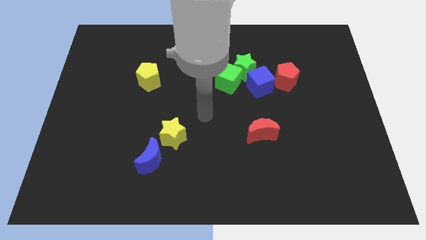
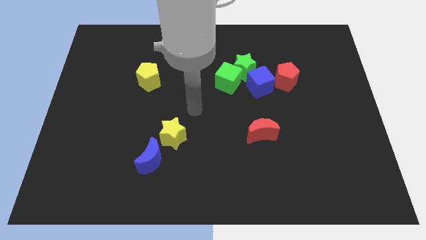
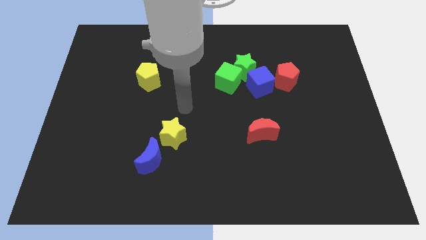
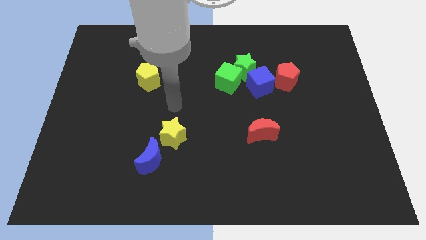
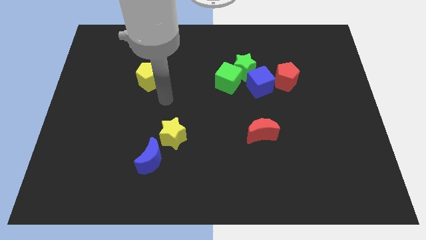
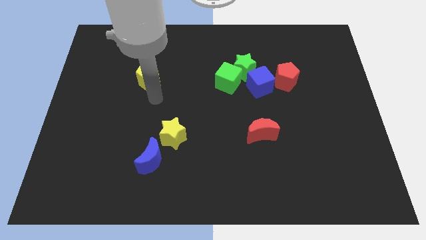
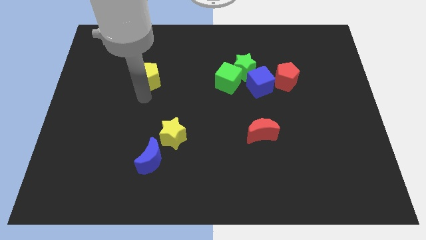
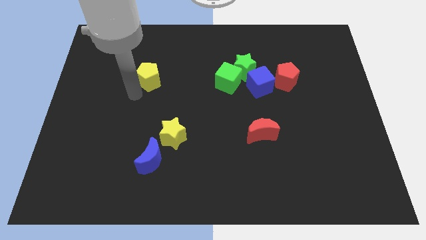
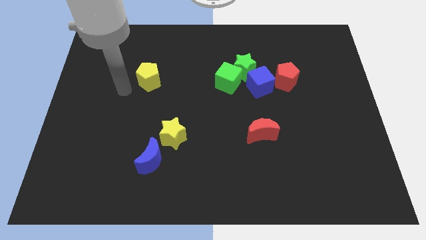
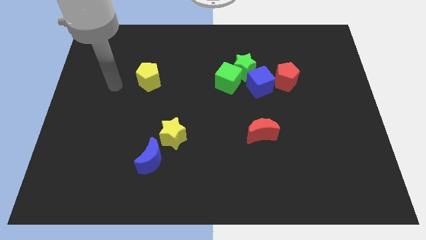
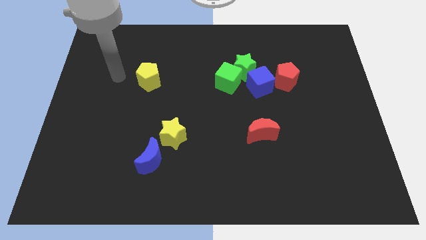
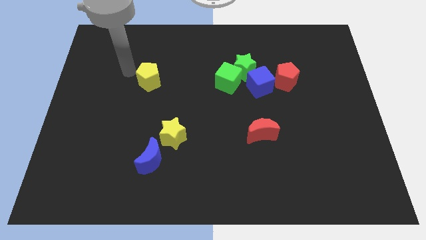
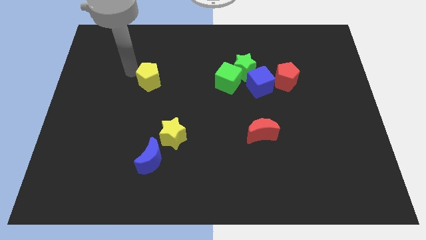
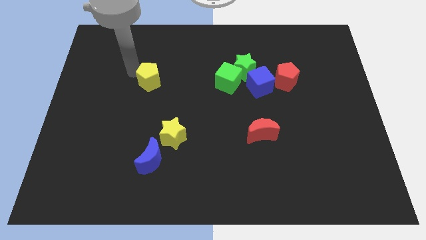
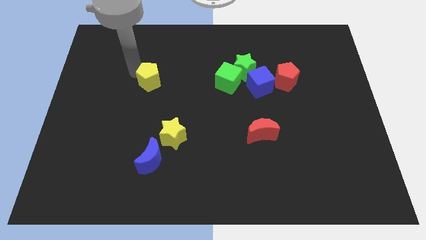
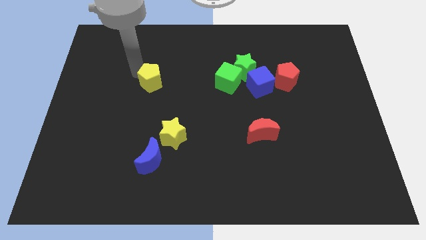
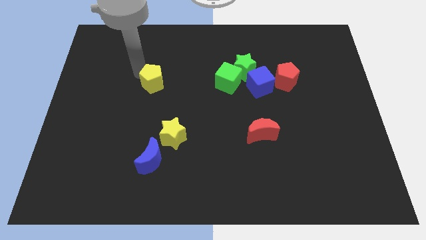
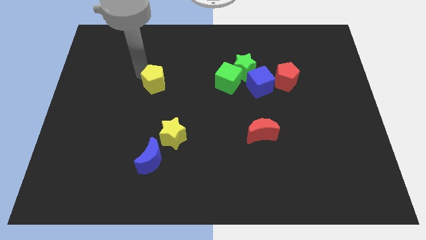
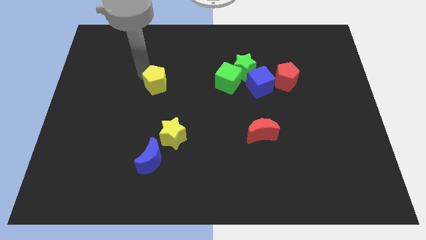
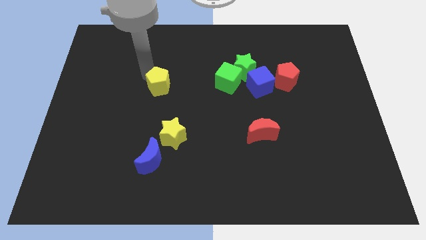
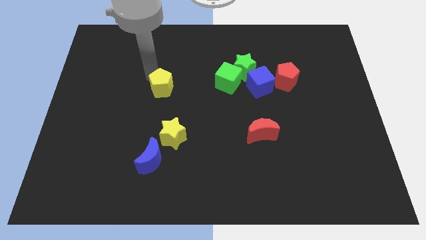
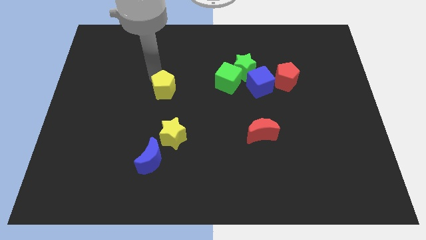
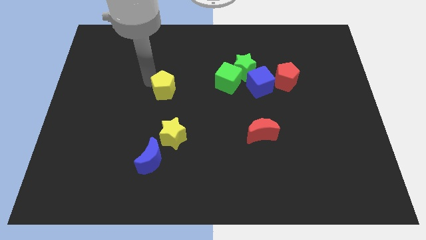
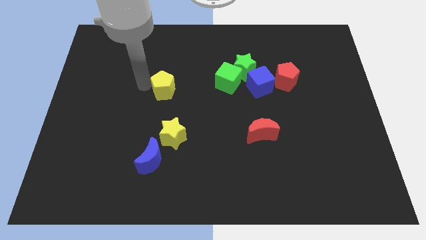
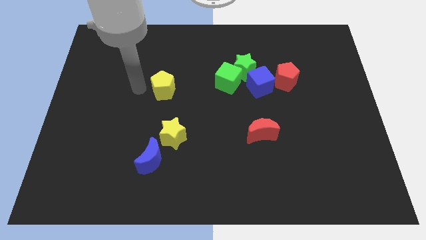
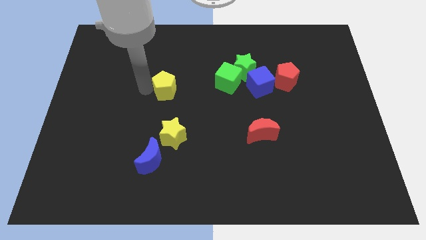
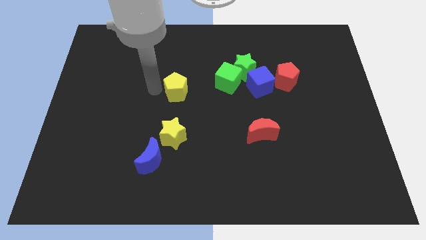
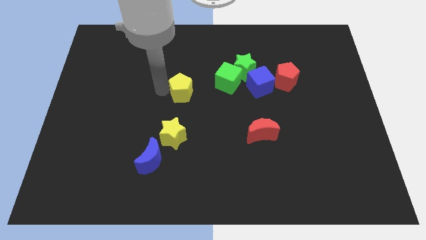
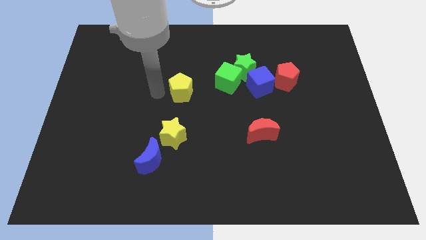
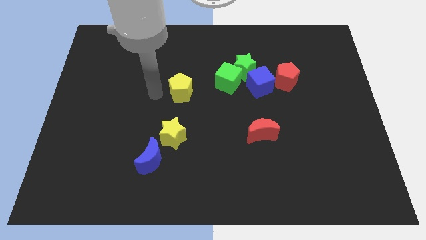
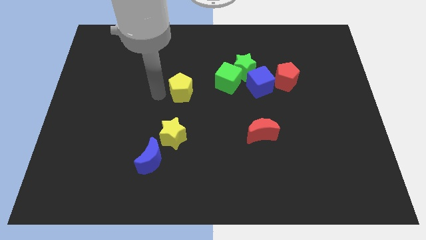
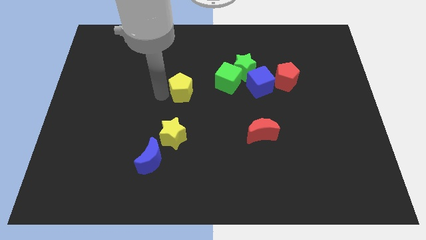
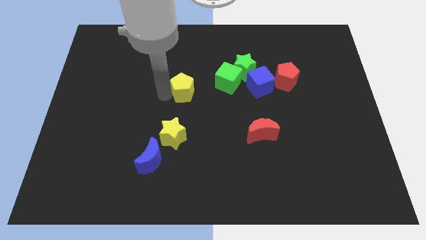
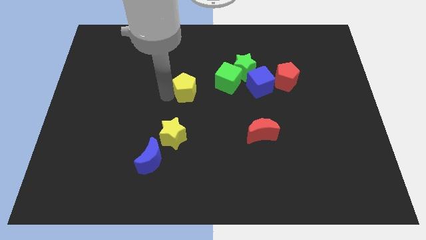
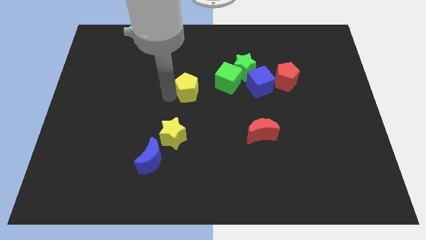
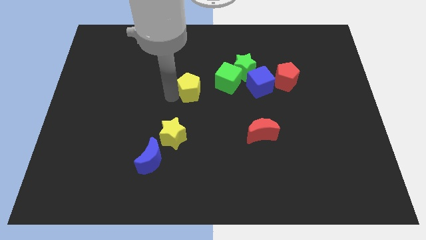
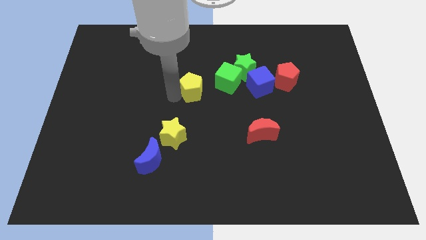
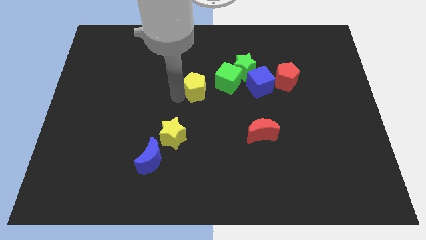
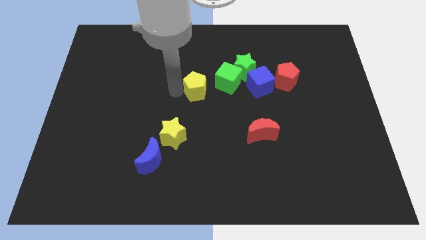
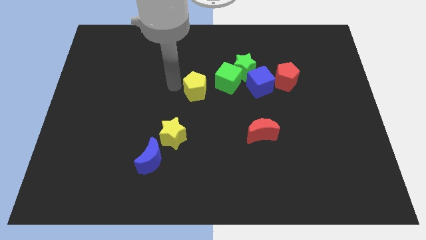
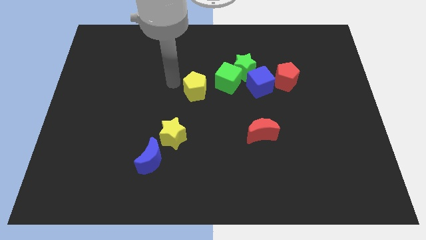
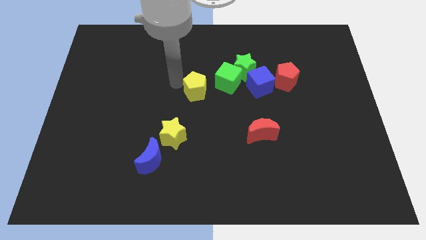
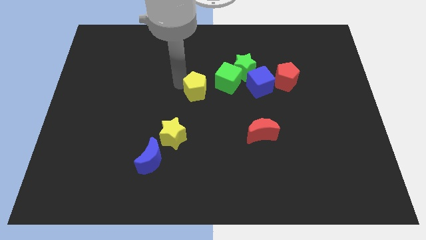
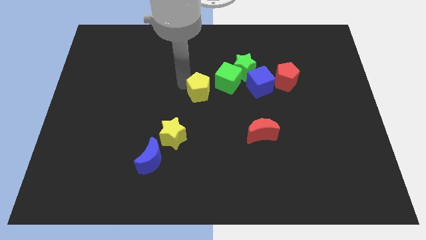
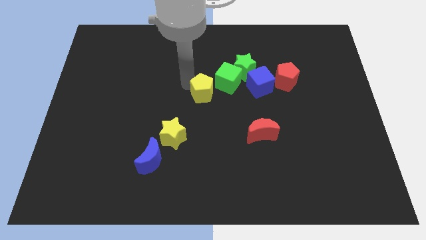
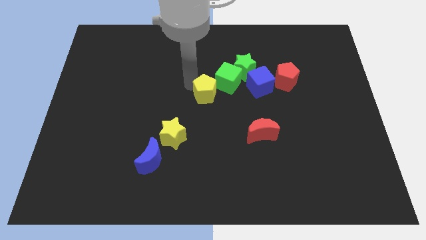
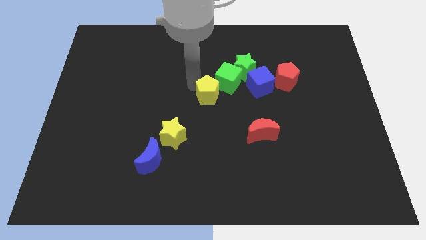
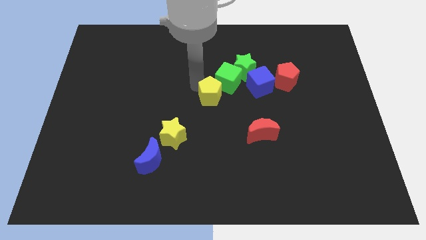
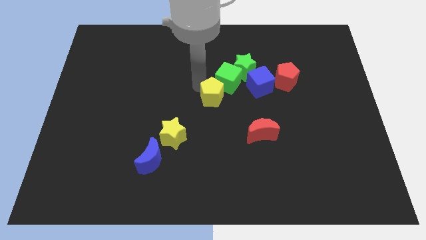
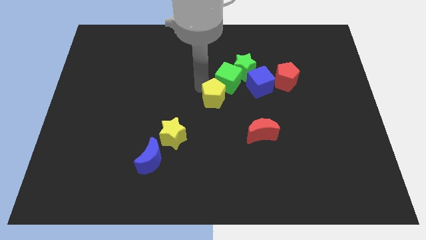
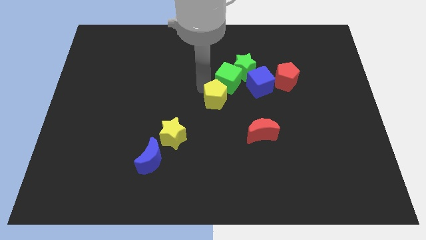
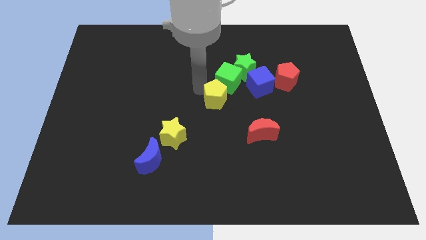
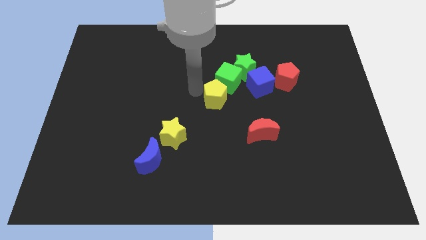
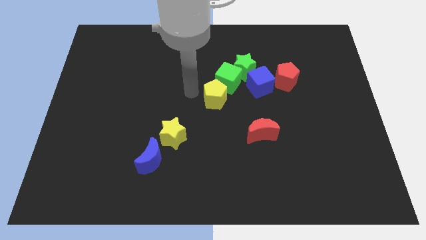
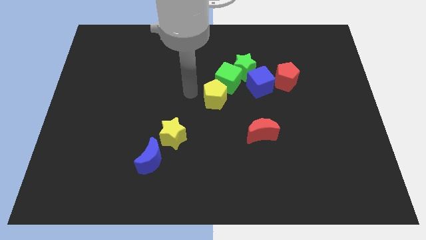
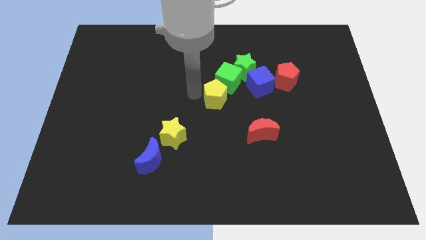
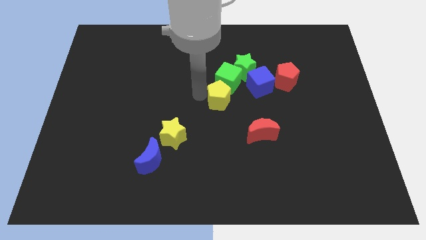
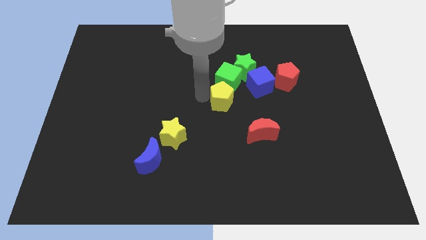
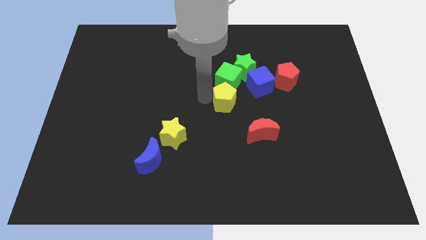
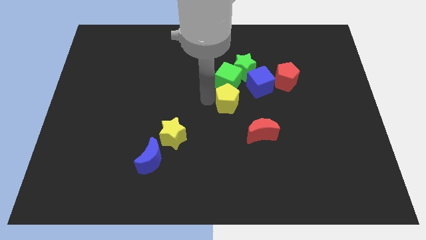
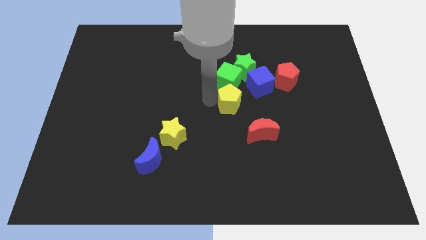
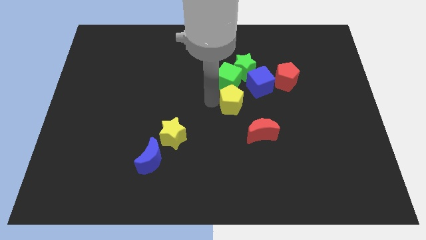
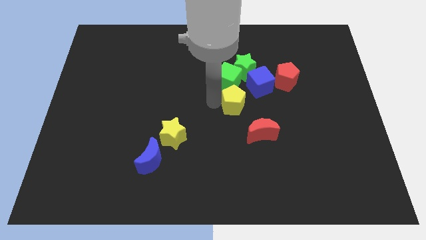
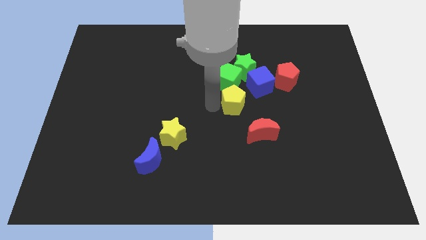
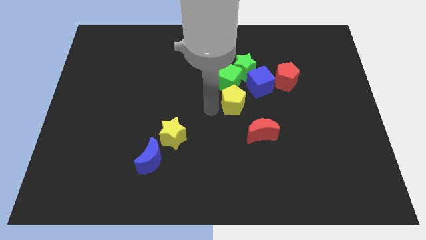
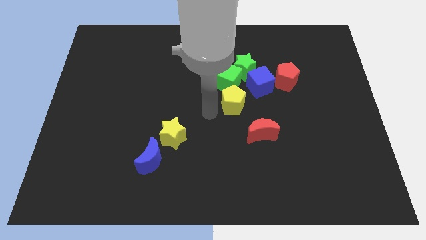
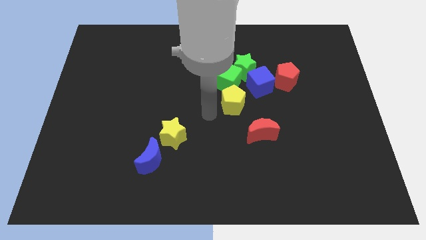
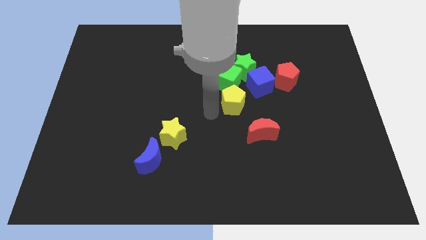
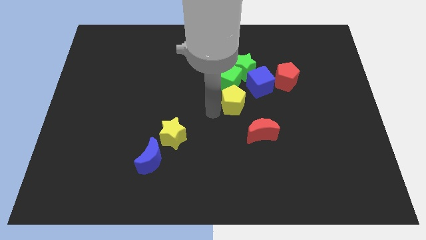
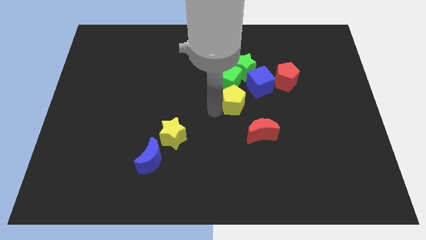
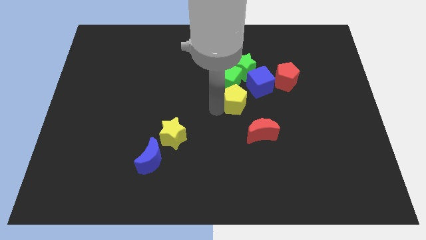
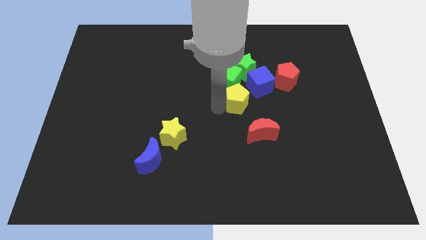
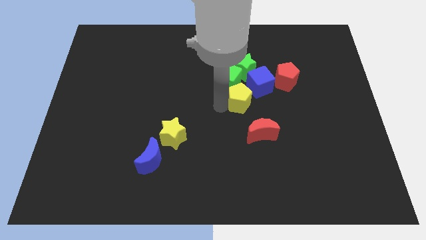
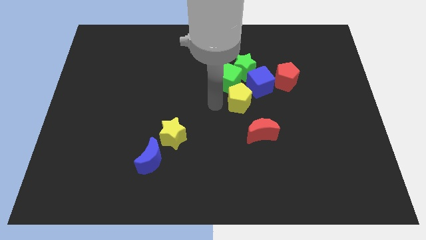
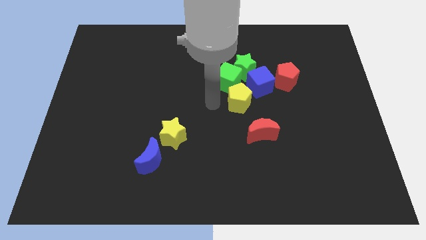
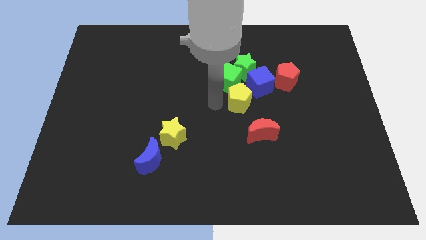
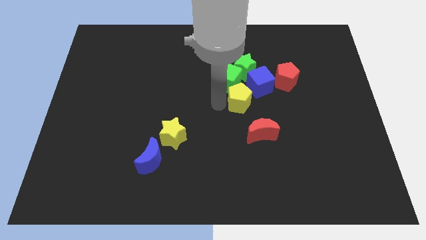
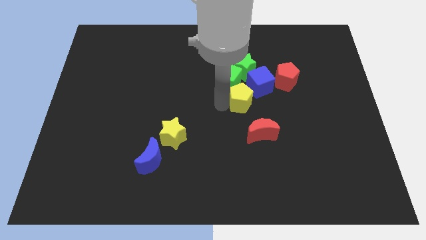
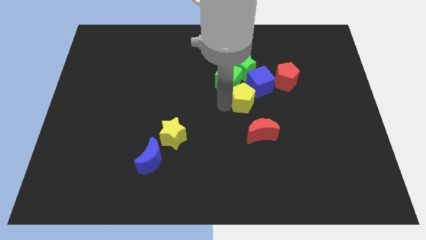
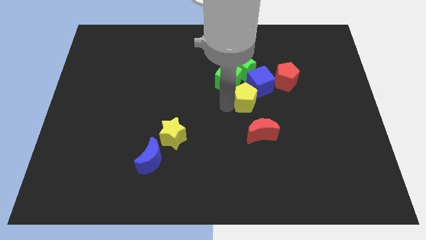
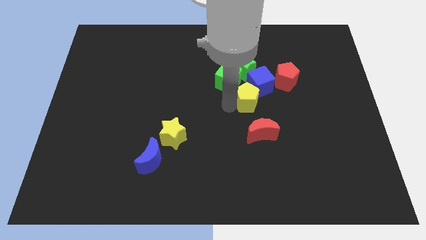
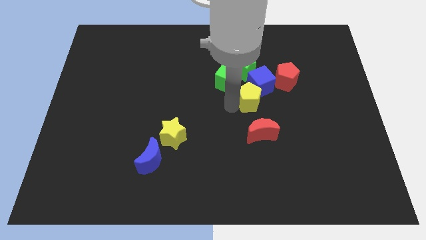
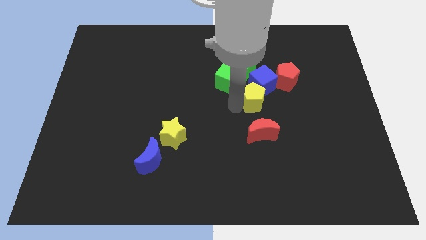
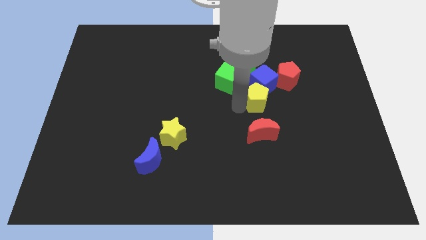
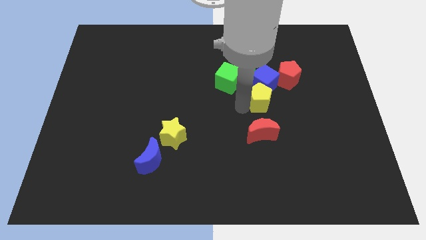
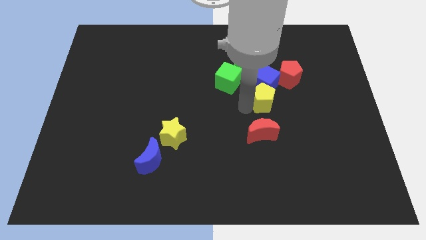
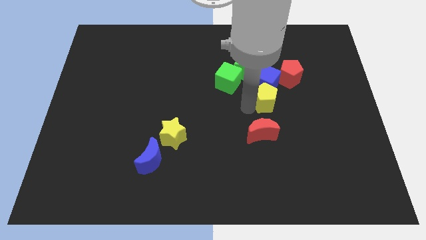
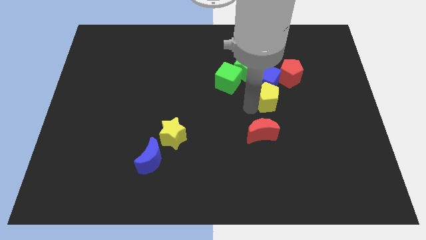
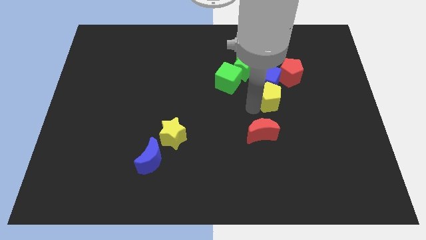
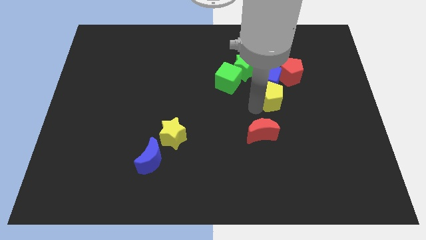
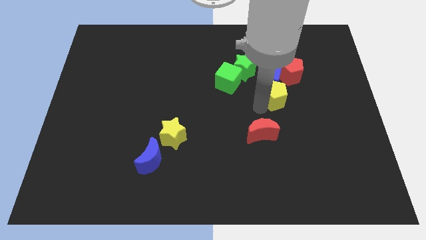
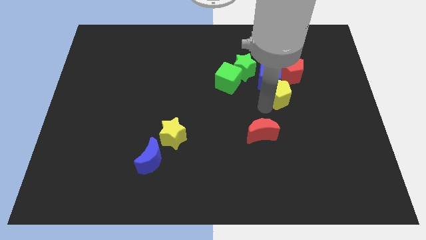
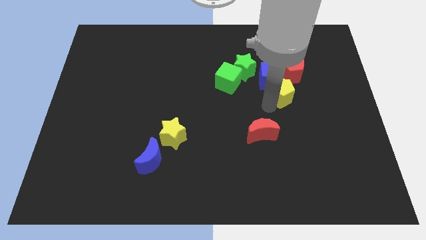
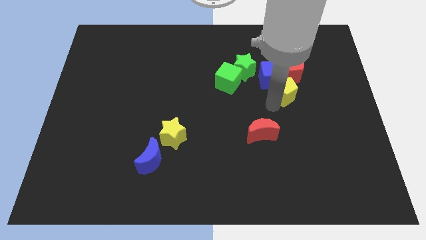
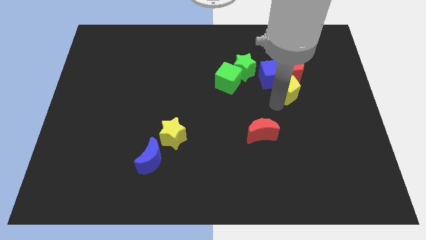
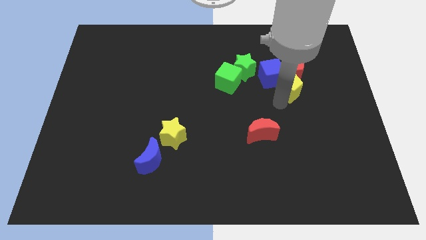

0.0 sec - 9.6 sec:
push the yellow pentagon just right of the blue cube
